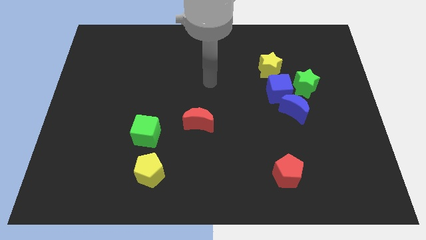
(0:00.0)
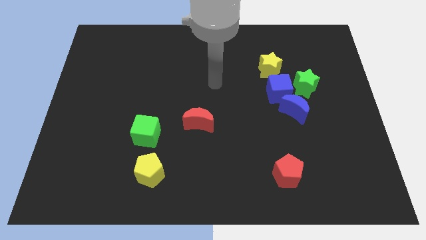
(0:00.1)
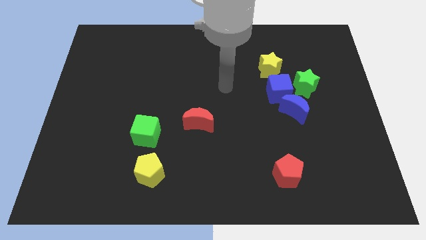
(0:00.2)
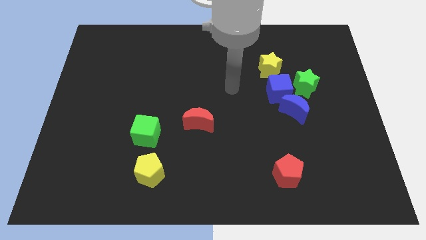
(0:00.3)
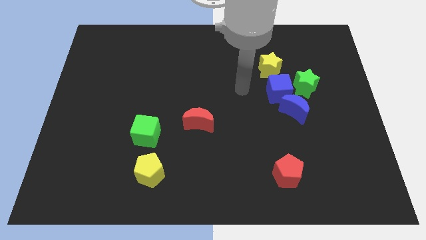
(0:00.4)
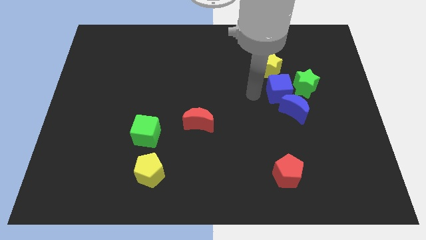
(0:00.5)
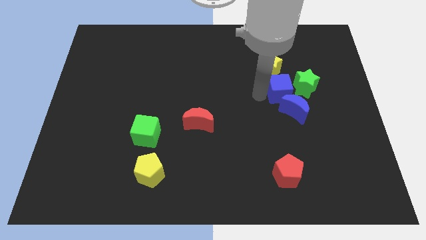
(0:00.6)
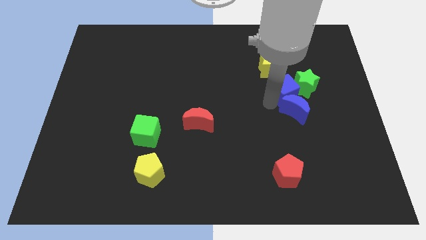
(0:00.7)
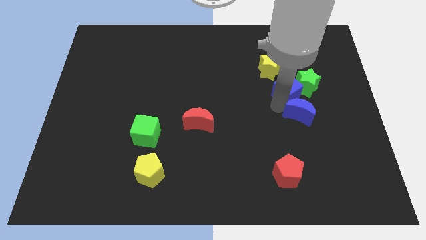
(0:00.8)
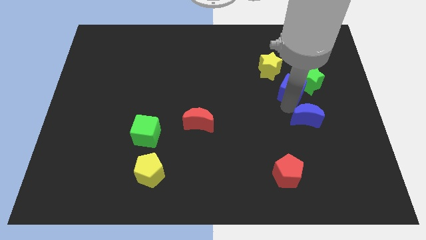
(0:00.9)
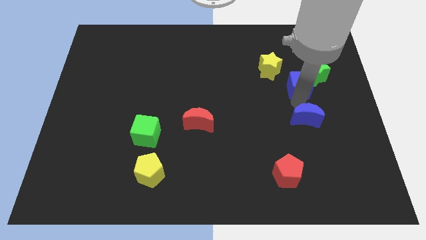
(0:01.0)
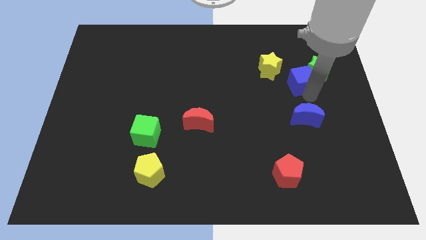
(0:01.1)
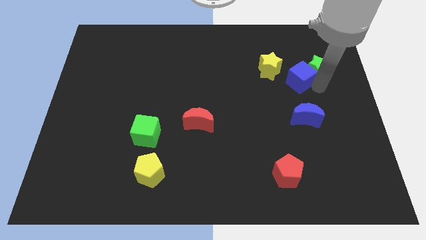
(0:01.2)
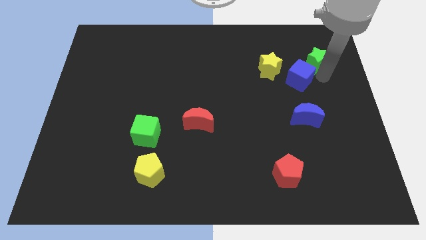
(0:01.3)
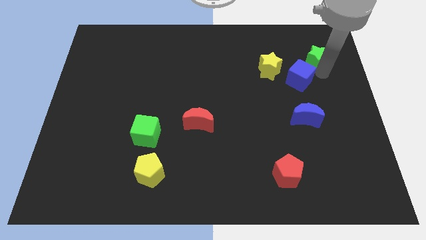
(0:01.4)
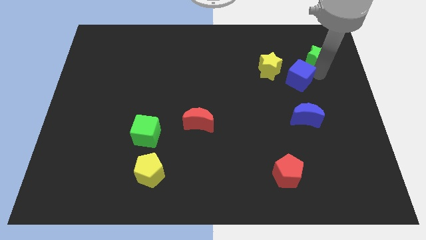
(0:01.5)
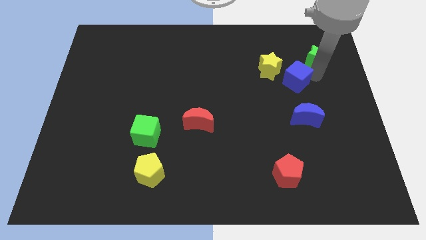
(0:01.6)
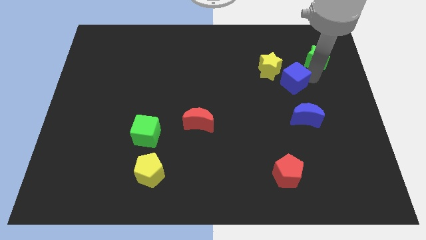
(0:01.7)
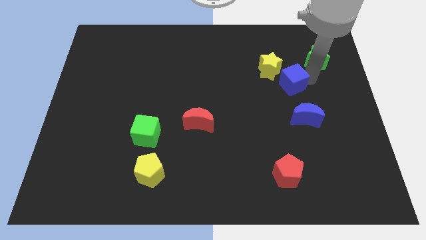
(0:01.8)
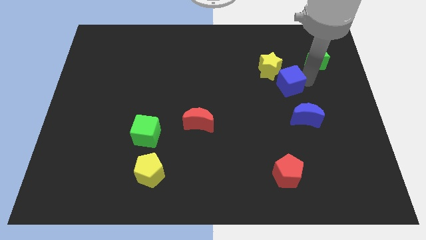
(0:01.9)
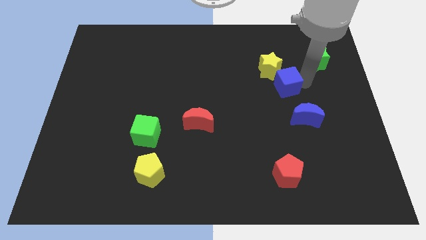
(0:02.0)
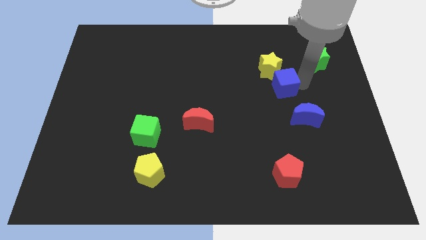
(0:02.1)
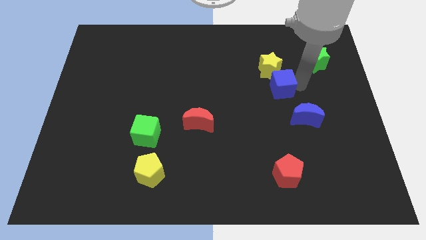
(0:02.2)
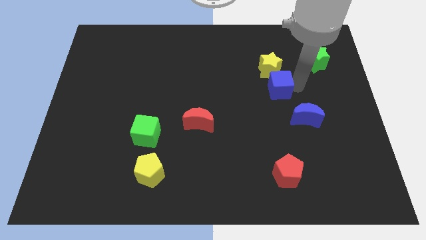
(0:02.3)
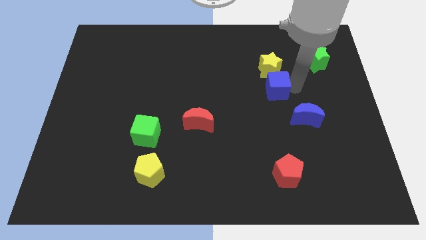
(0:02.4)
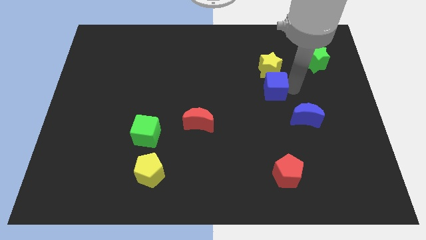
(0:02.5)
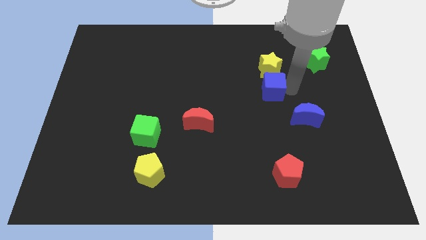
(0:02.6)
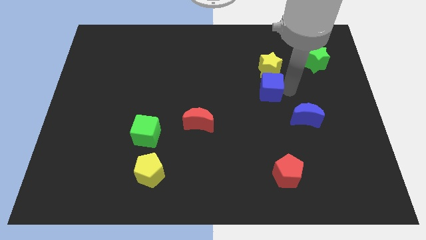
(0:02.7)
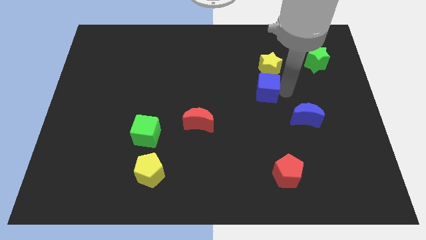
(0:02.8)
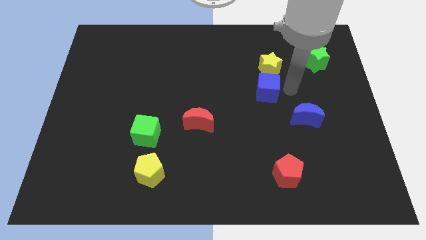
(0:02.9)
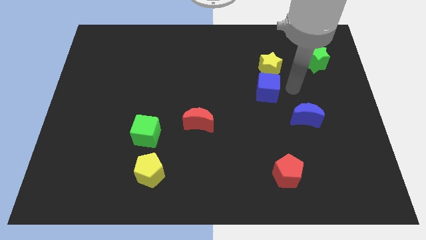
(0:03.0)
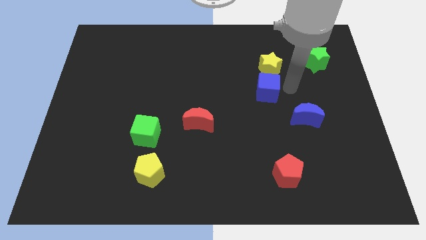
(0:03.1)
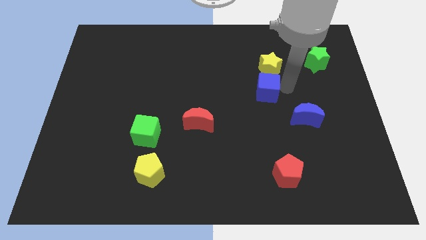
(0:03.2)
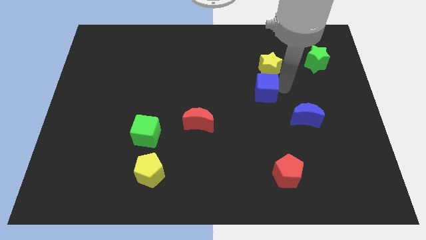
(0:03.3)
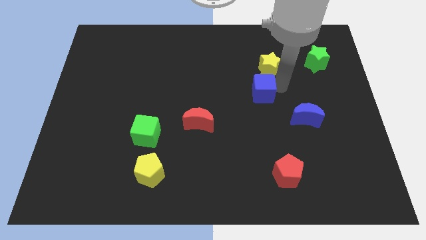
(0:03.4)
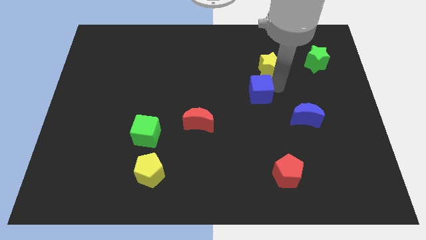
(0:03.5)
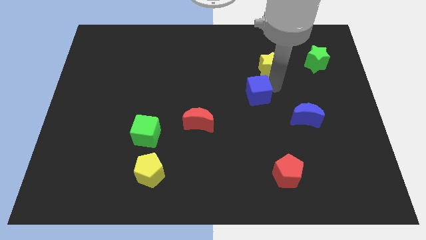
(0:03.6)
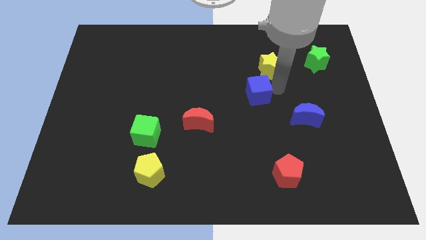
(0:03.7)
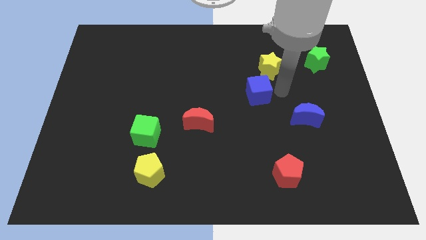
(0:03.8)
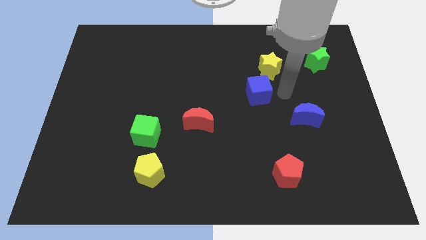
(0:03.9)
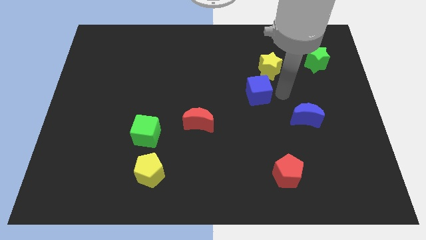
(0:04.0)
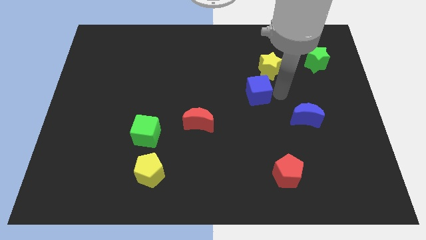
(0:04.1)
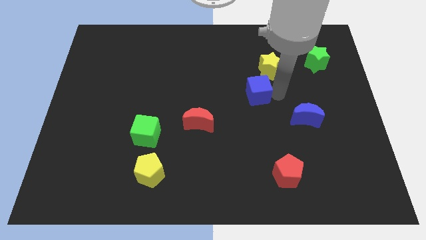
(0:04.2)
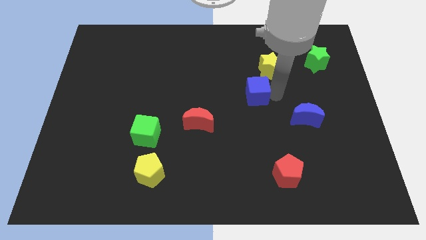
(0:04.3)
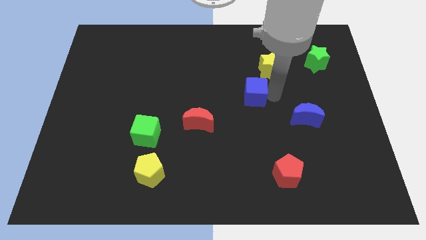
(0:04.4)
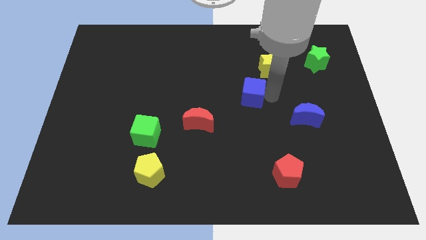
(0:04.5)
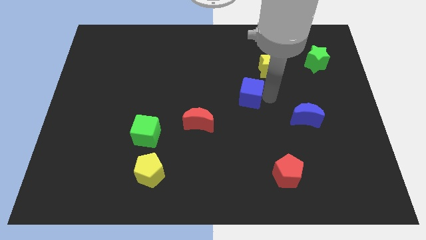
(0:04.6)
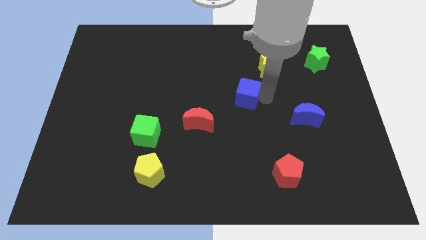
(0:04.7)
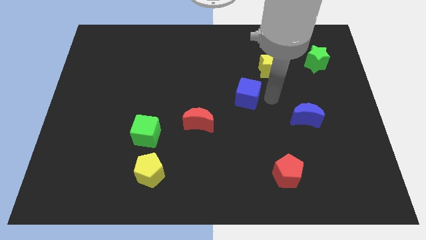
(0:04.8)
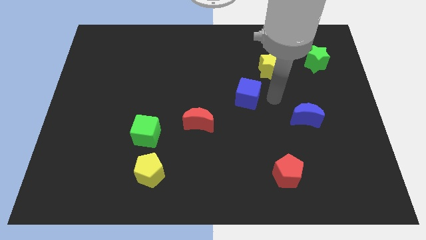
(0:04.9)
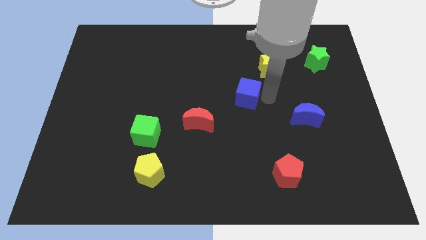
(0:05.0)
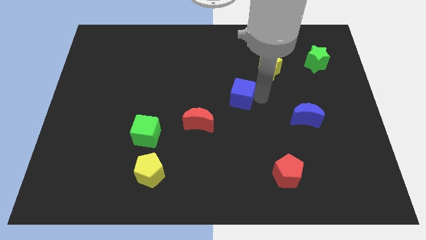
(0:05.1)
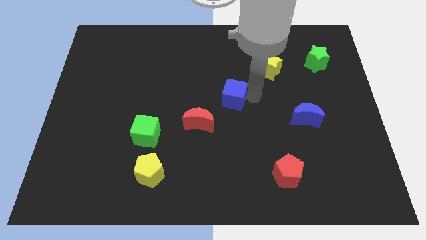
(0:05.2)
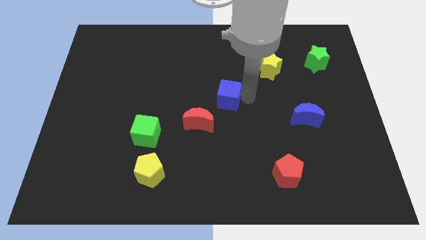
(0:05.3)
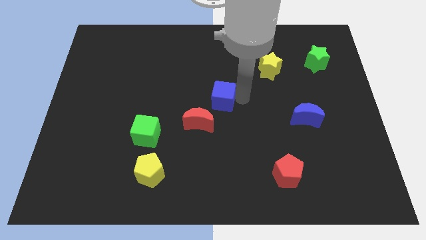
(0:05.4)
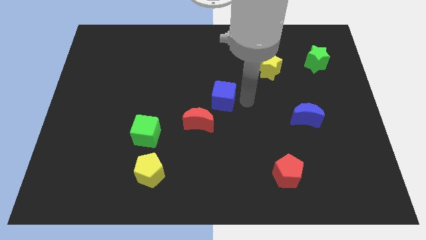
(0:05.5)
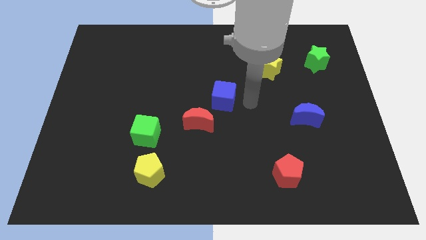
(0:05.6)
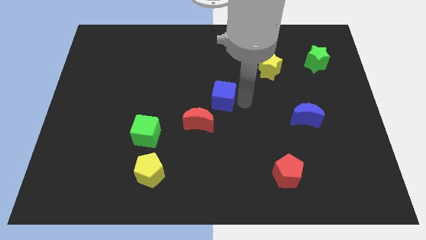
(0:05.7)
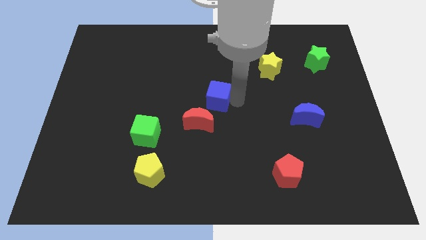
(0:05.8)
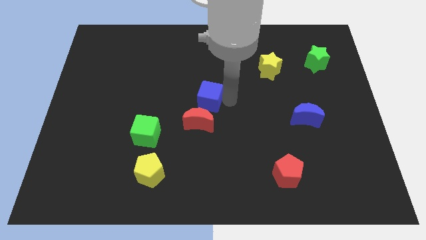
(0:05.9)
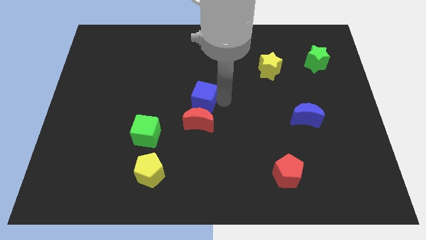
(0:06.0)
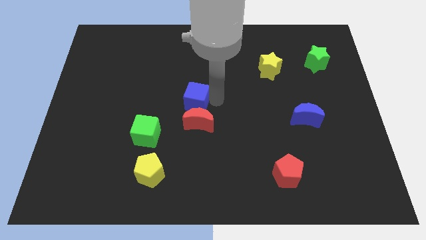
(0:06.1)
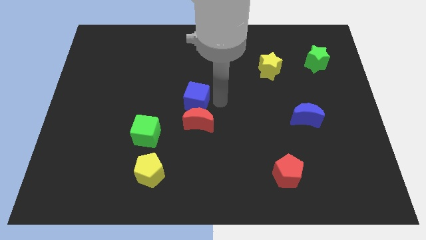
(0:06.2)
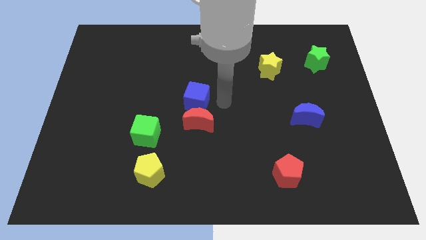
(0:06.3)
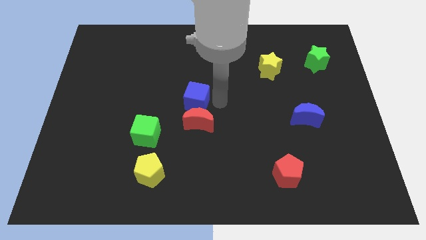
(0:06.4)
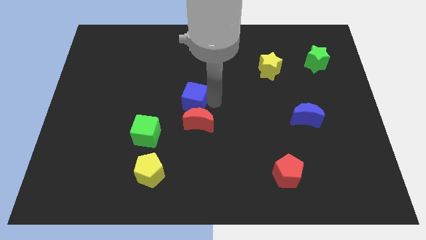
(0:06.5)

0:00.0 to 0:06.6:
push the blue cube left

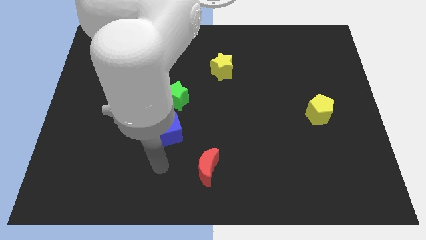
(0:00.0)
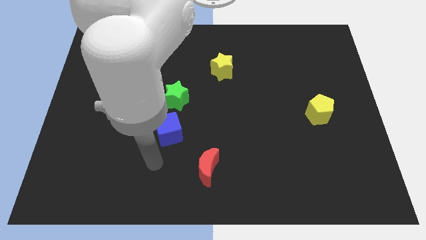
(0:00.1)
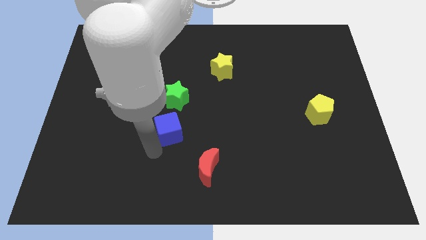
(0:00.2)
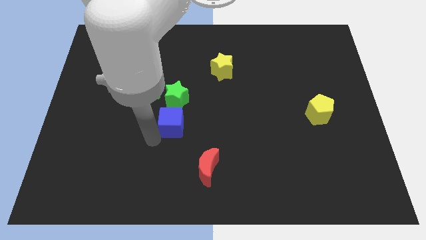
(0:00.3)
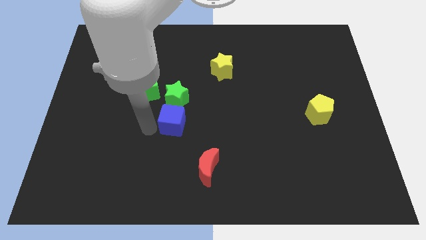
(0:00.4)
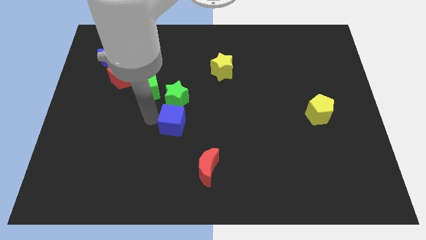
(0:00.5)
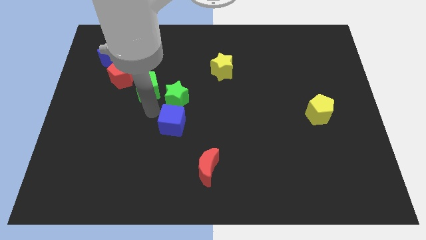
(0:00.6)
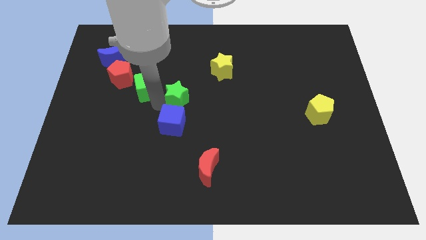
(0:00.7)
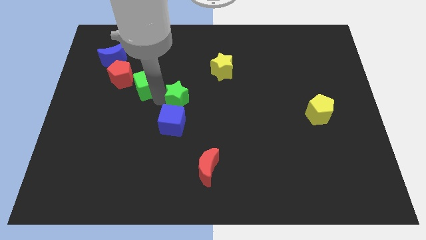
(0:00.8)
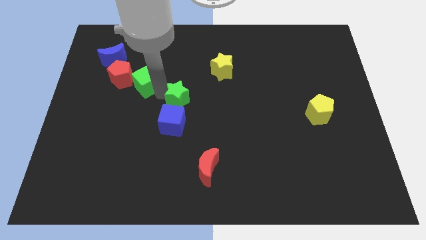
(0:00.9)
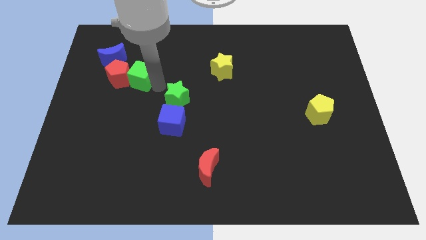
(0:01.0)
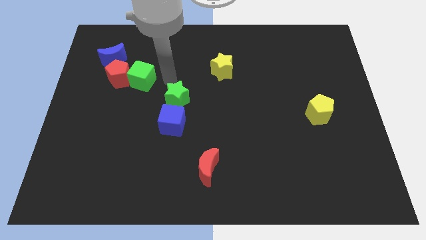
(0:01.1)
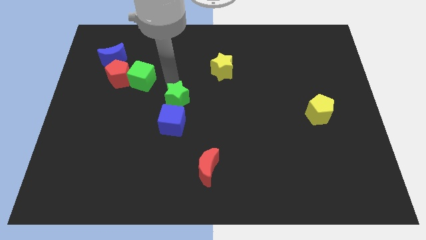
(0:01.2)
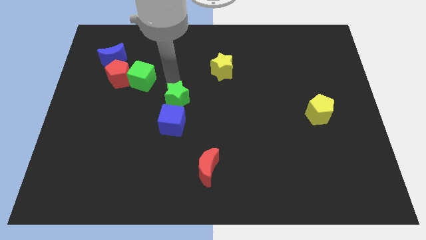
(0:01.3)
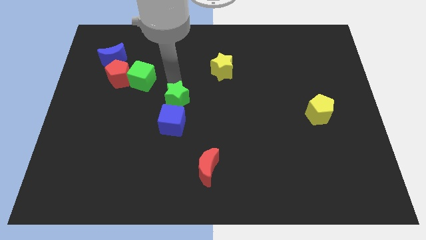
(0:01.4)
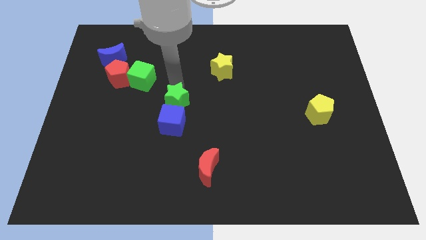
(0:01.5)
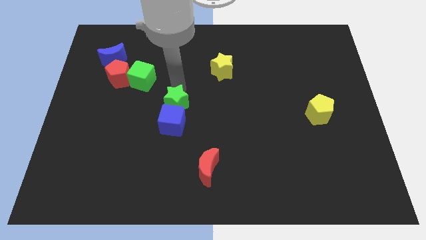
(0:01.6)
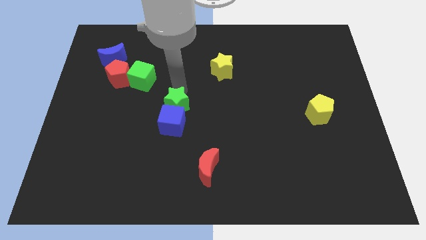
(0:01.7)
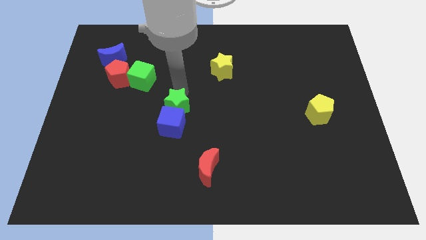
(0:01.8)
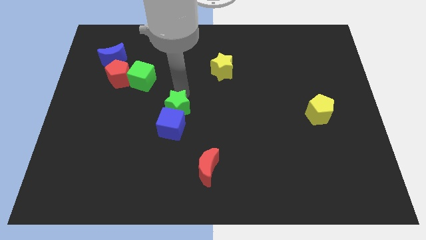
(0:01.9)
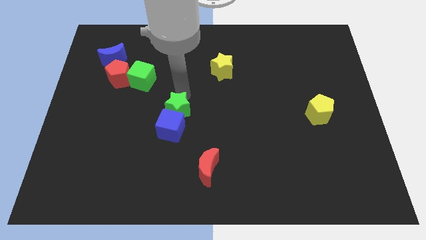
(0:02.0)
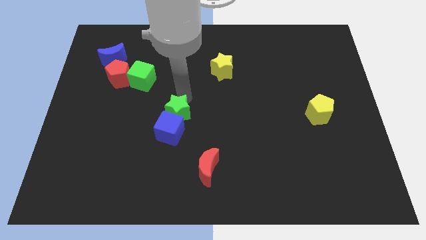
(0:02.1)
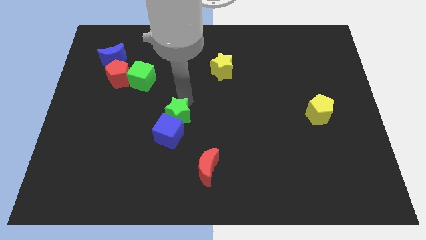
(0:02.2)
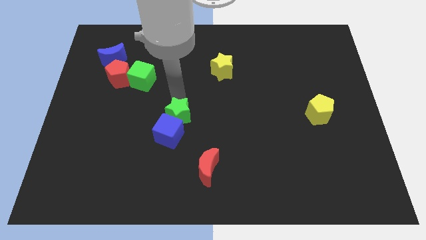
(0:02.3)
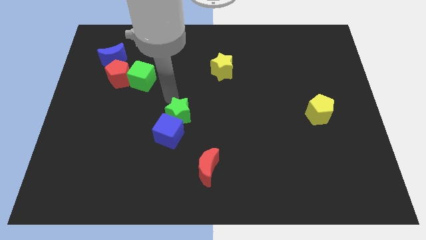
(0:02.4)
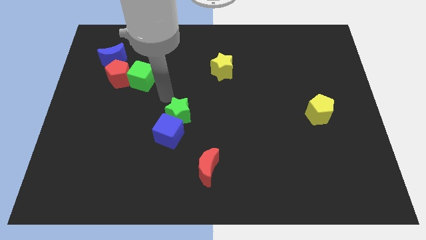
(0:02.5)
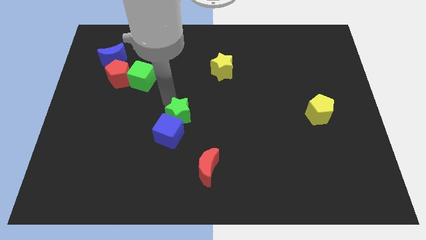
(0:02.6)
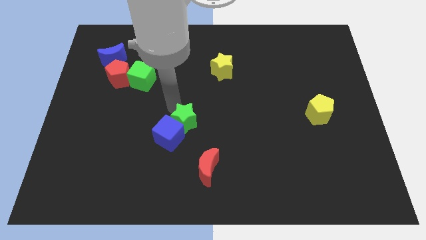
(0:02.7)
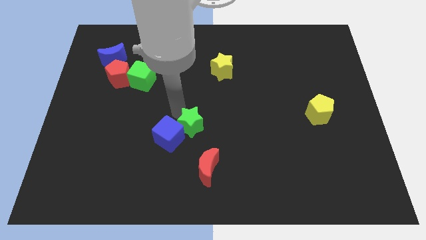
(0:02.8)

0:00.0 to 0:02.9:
push the green star a little bit downwards
